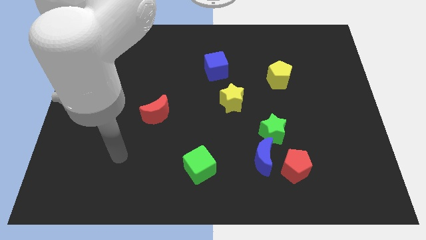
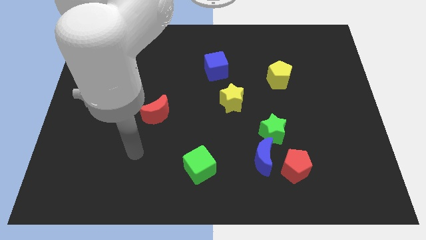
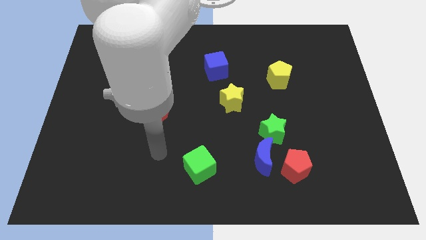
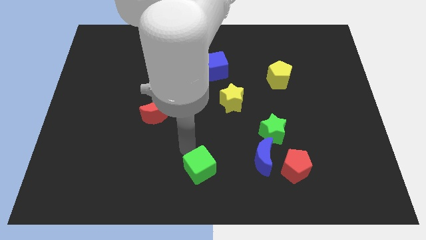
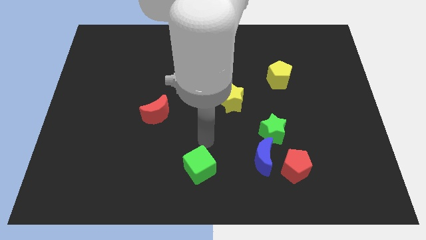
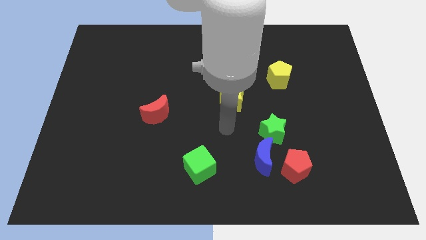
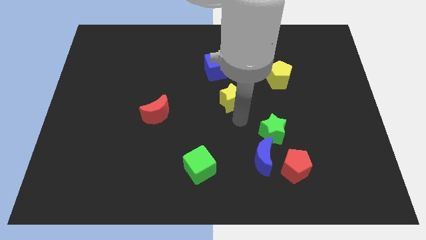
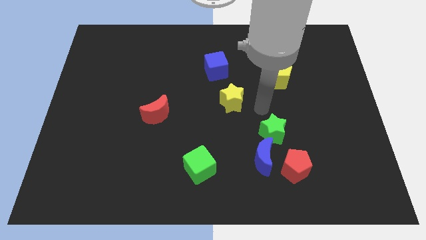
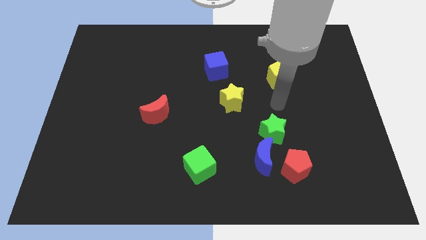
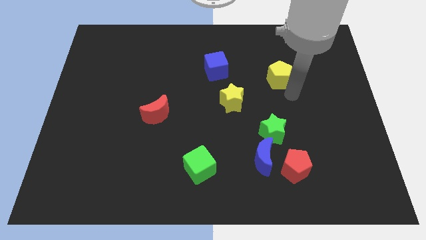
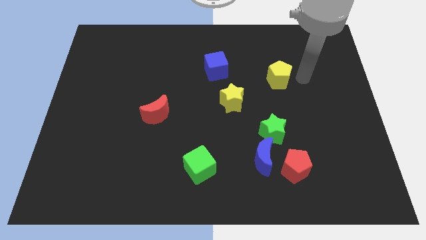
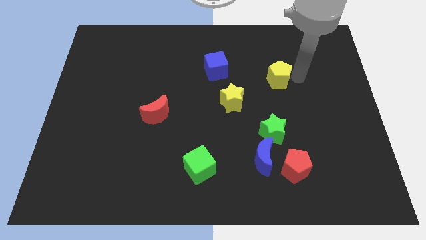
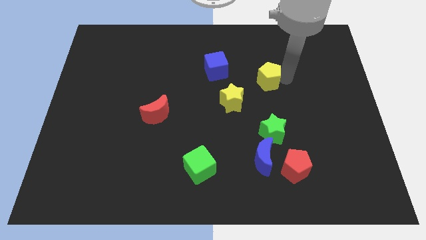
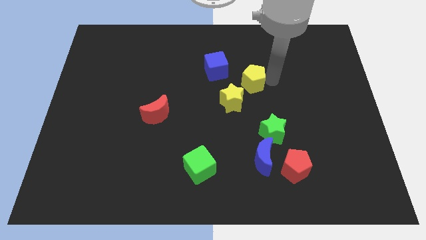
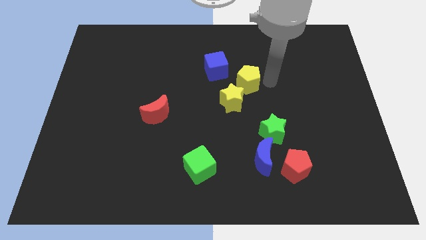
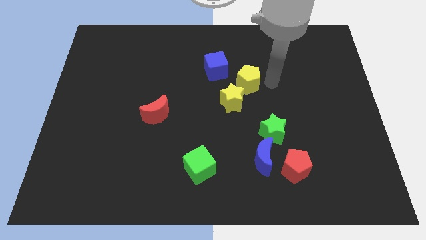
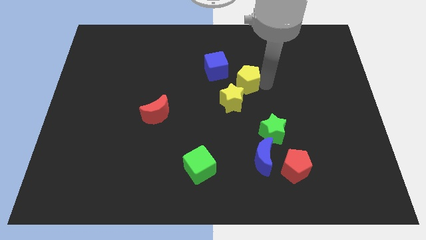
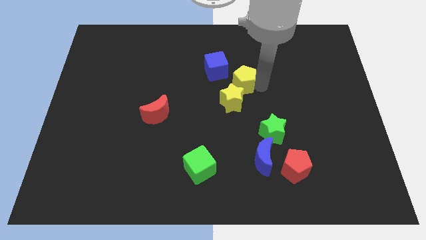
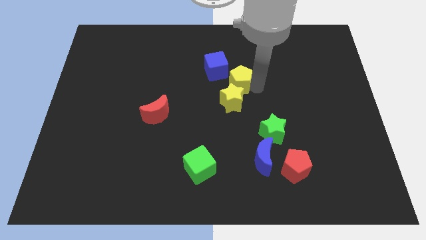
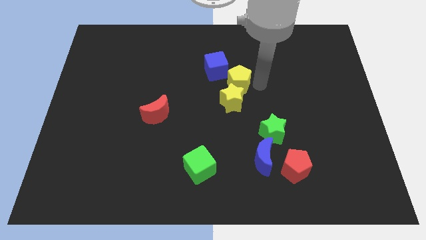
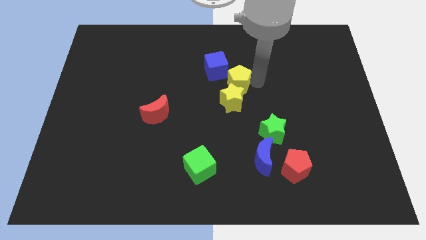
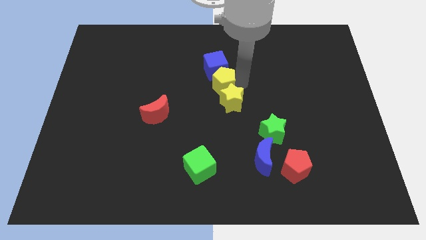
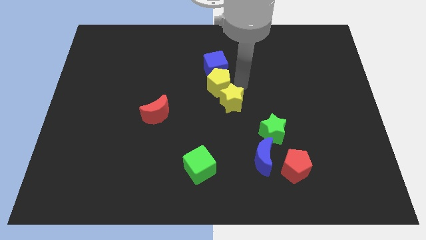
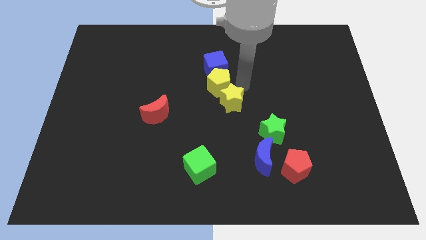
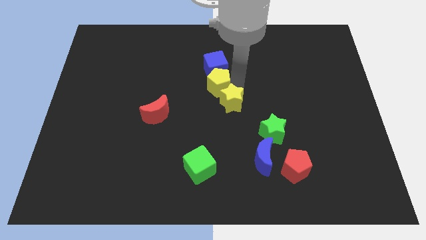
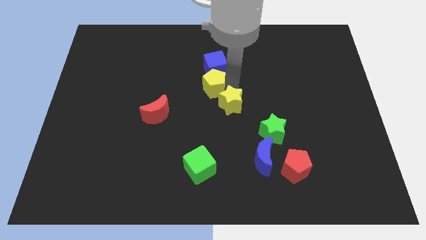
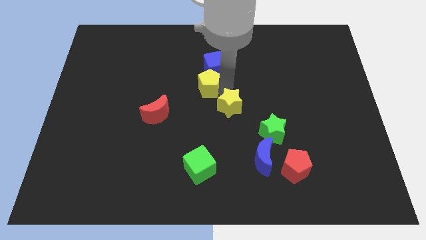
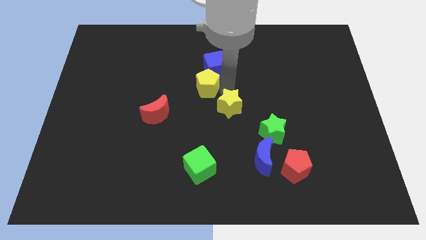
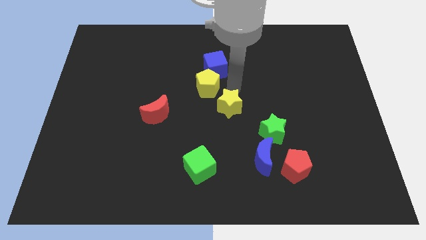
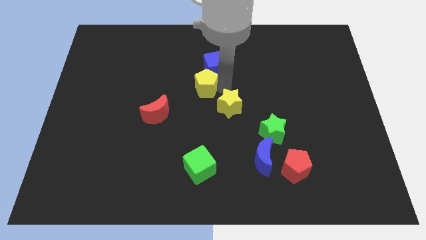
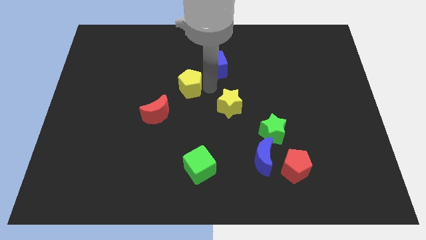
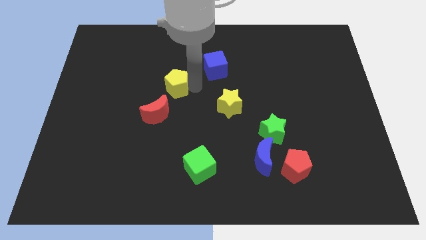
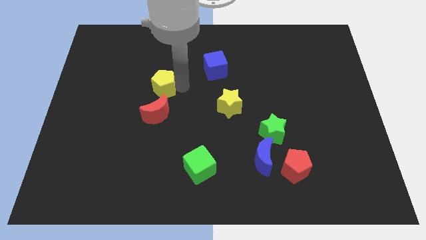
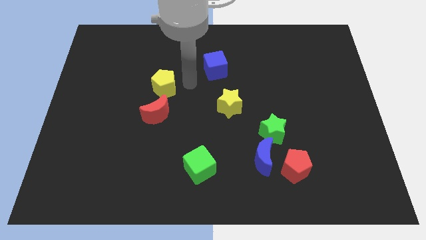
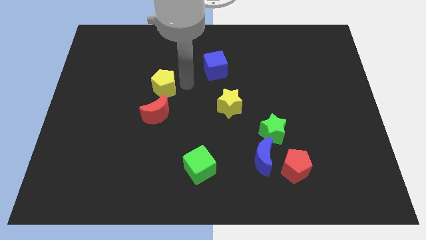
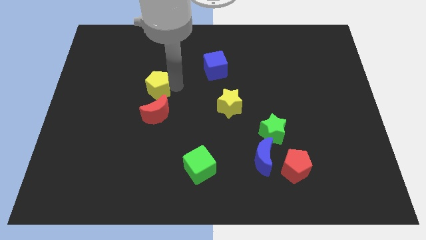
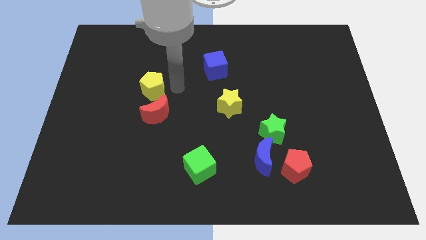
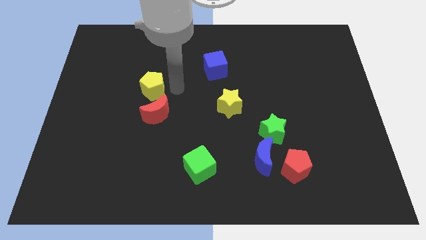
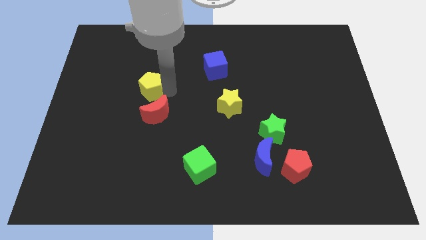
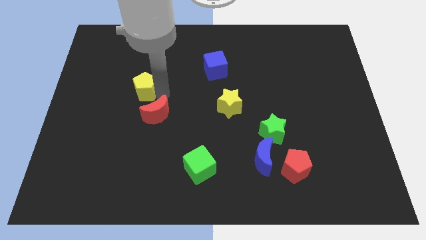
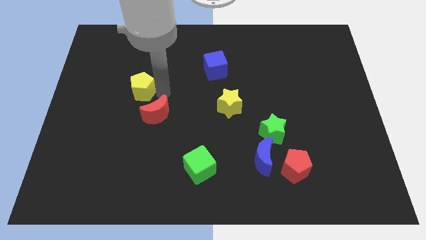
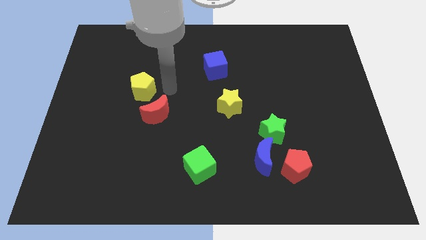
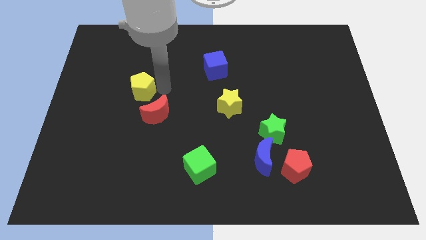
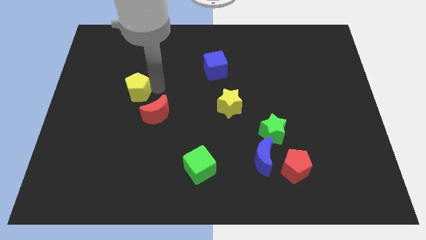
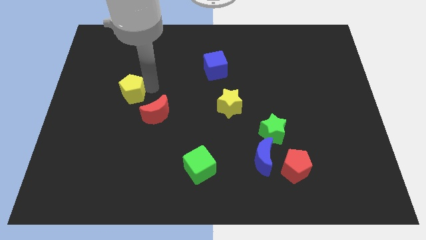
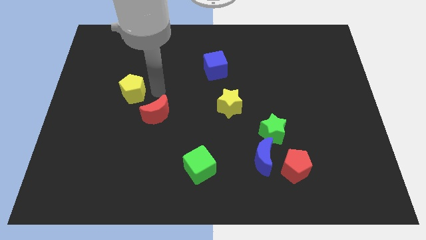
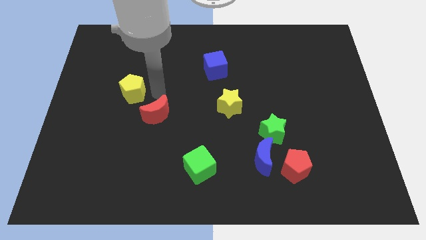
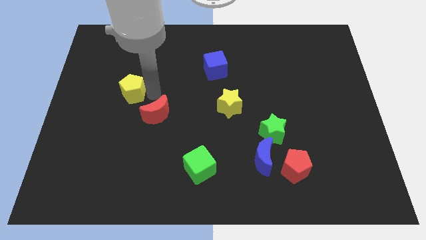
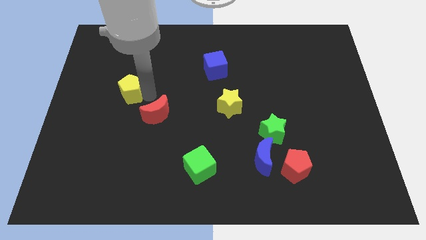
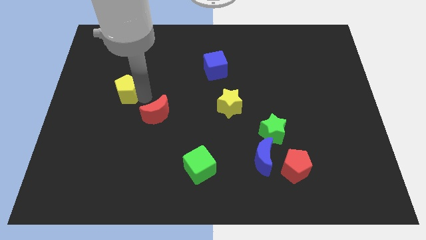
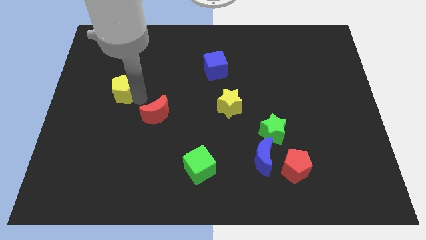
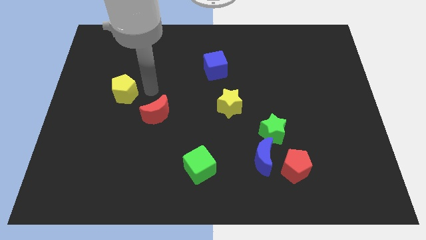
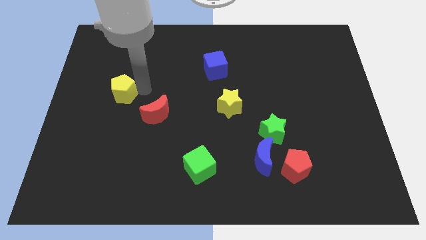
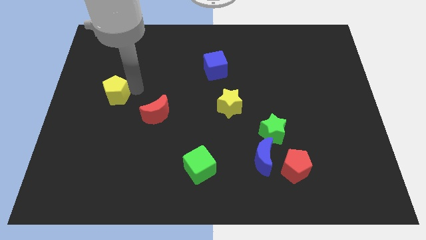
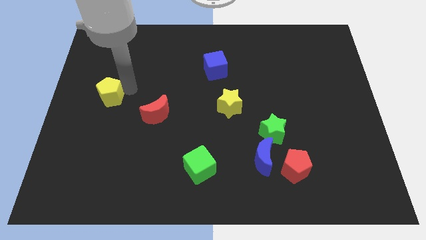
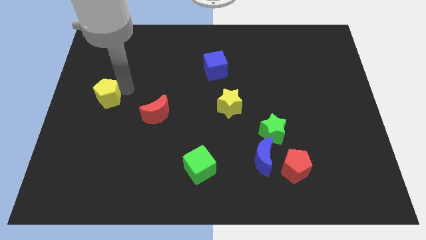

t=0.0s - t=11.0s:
push the yellow pentagon to the center left

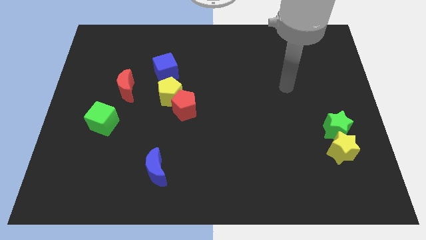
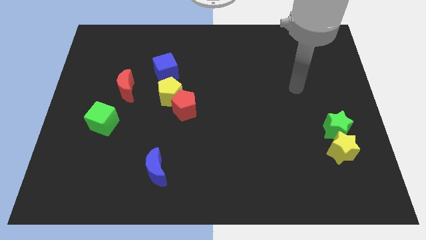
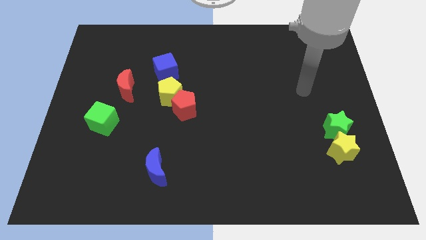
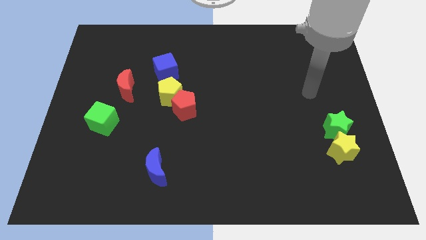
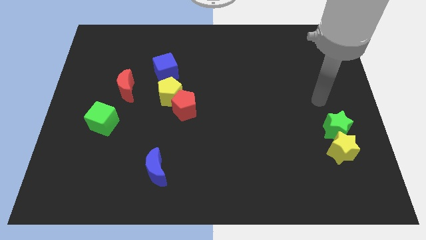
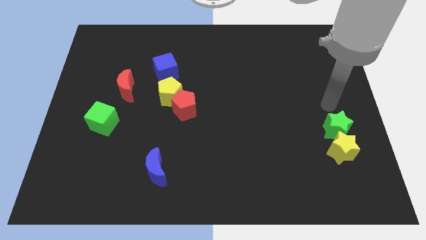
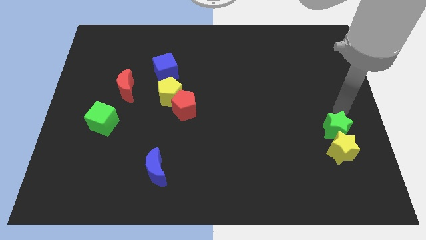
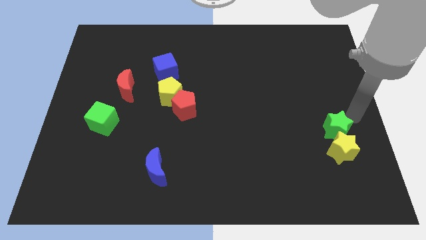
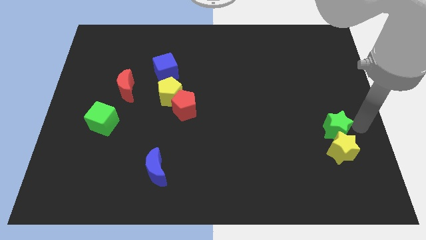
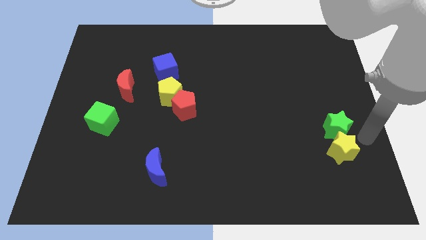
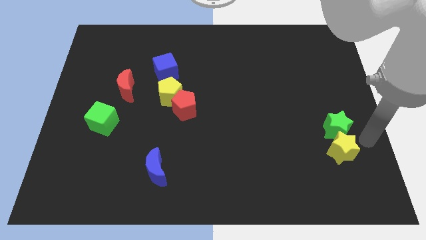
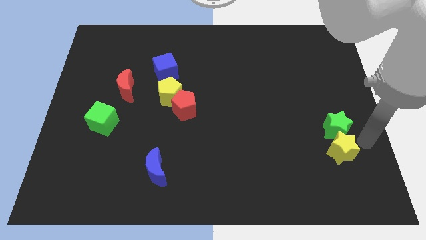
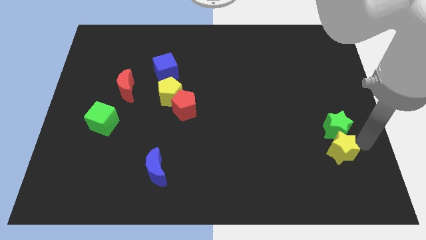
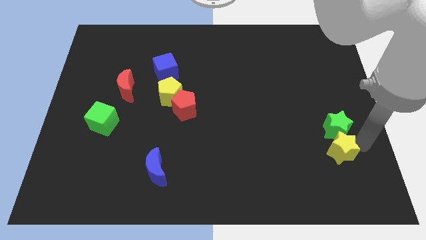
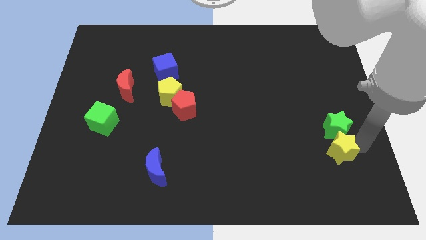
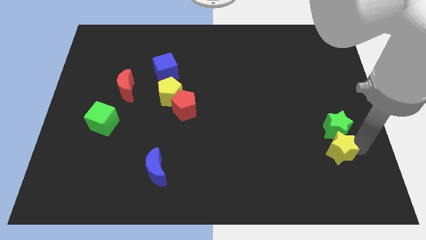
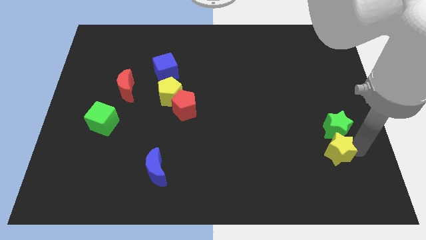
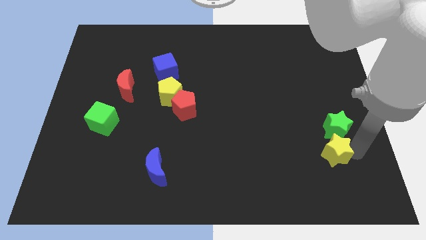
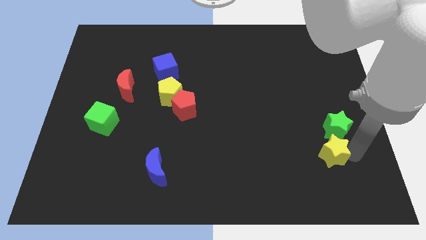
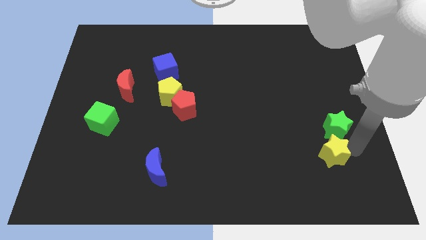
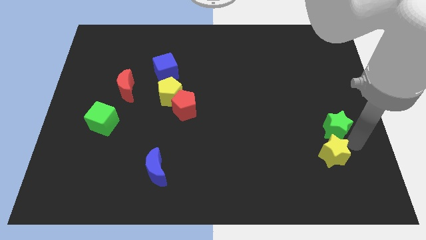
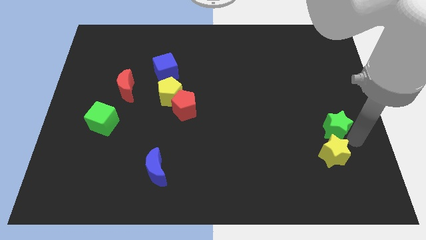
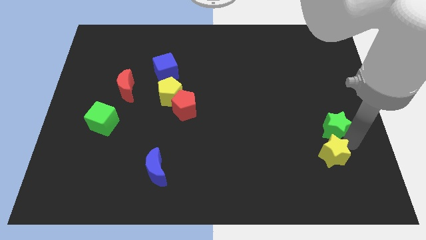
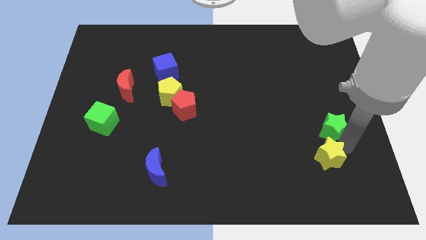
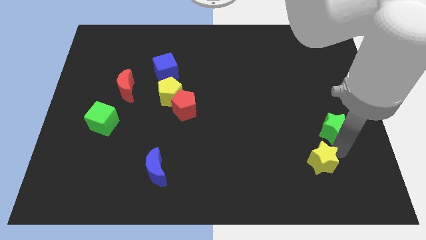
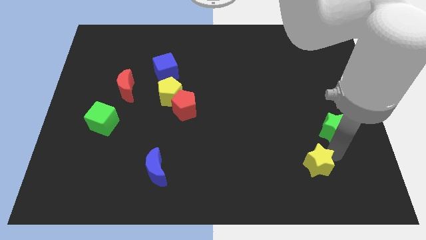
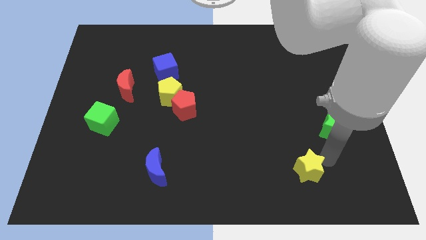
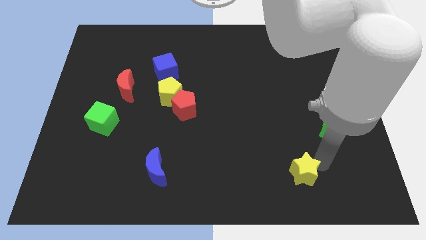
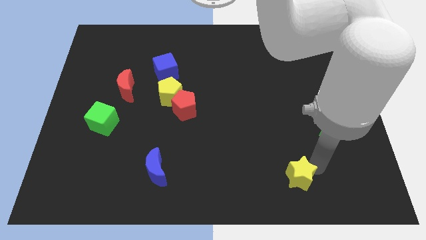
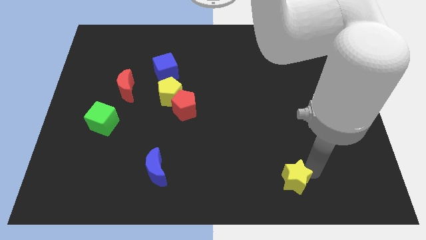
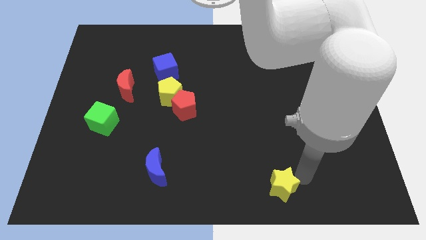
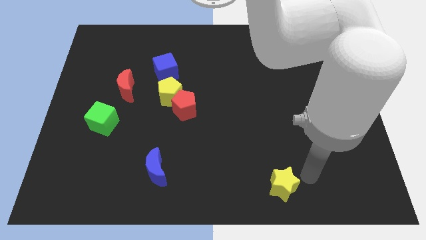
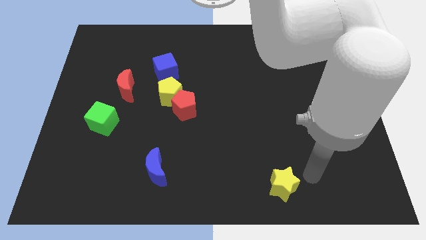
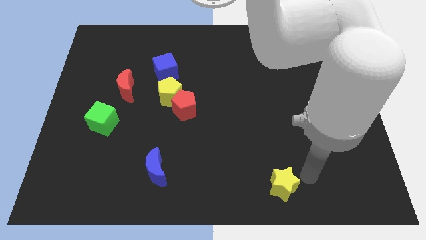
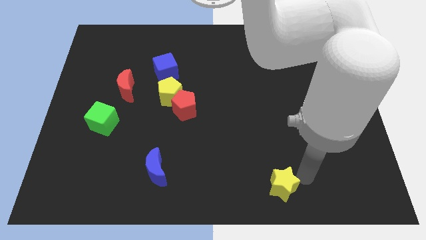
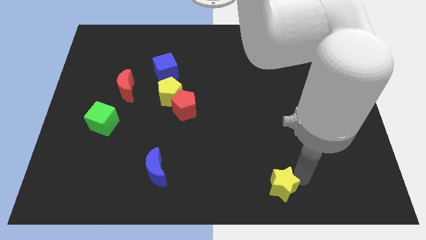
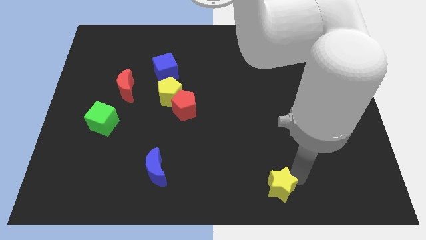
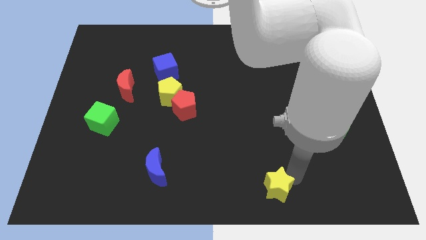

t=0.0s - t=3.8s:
put the yellow star to the bottom
